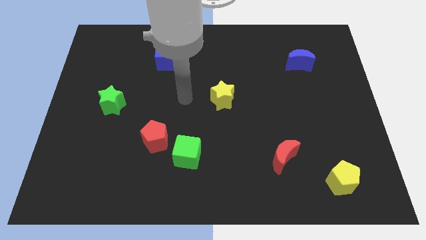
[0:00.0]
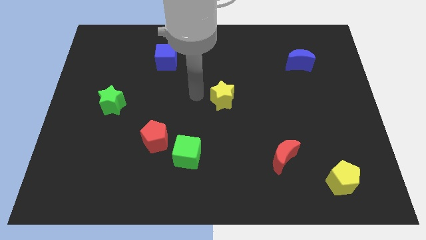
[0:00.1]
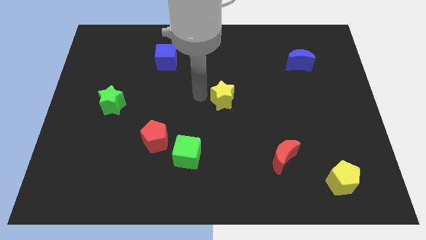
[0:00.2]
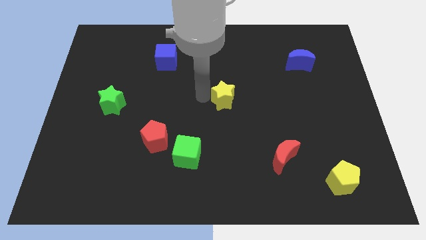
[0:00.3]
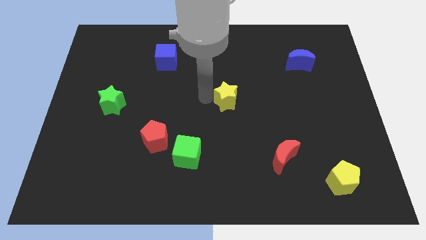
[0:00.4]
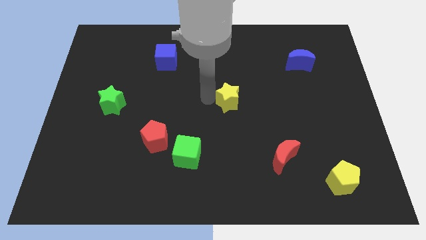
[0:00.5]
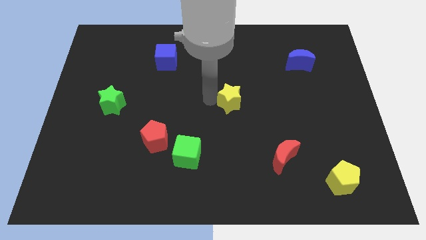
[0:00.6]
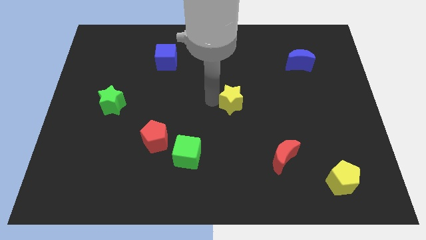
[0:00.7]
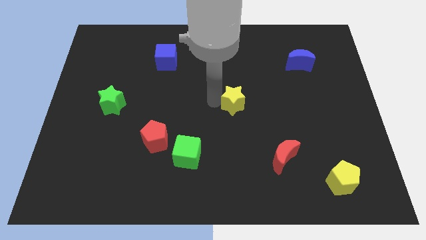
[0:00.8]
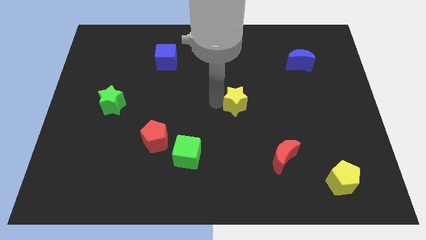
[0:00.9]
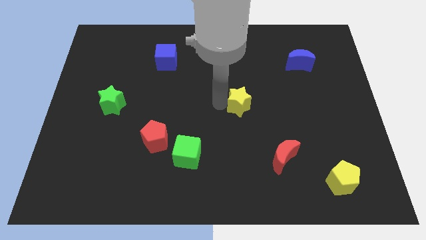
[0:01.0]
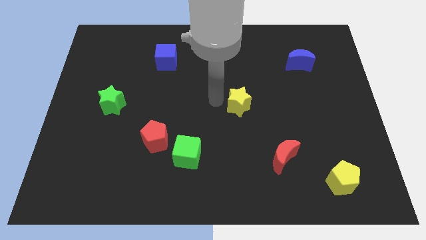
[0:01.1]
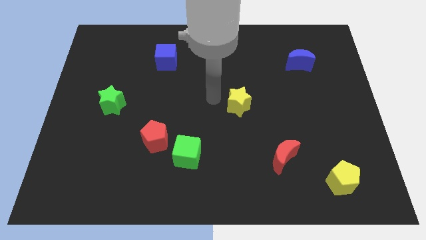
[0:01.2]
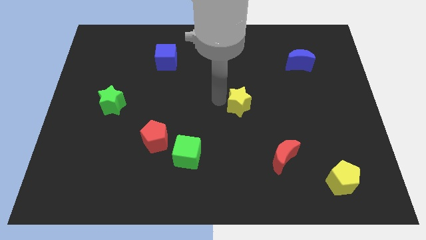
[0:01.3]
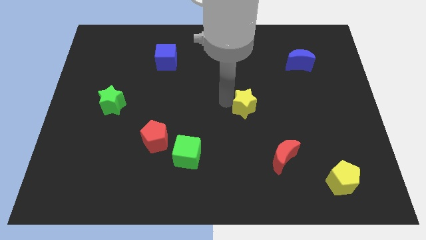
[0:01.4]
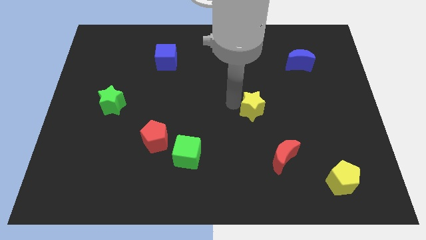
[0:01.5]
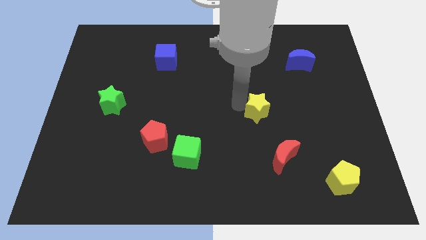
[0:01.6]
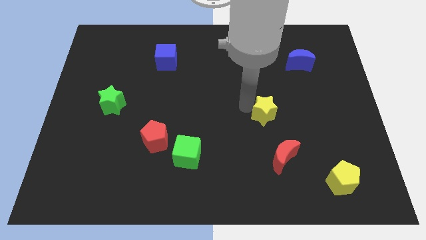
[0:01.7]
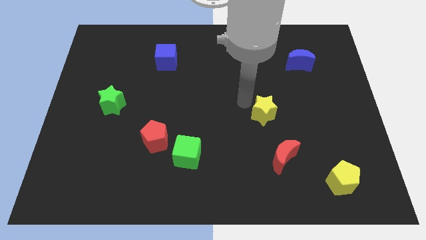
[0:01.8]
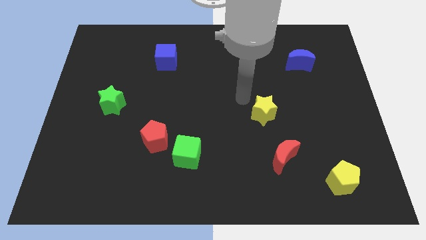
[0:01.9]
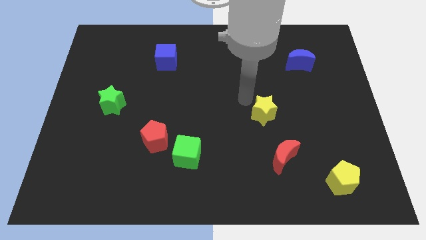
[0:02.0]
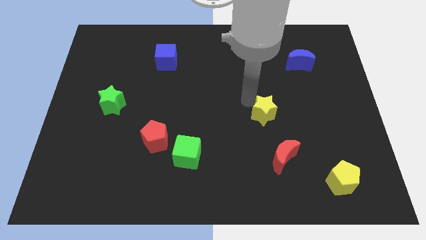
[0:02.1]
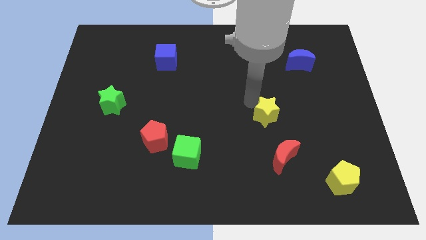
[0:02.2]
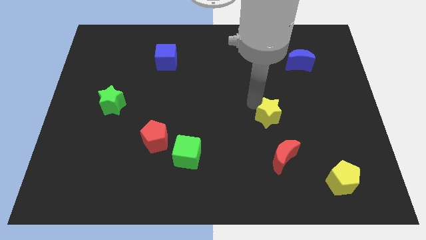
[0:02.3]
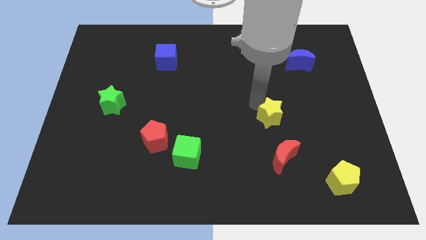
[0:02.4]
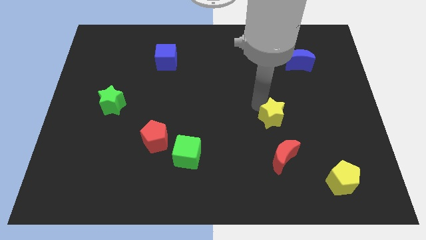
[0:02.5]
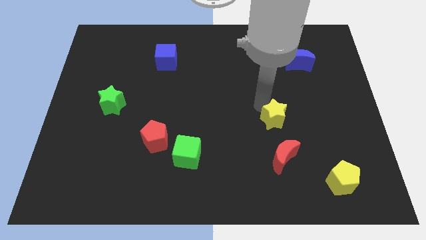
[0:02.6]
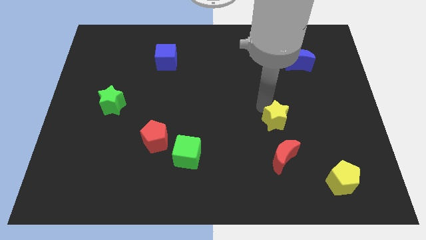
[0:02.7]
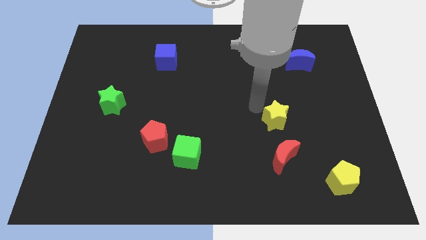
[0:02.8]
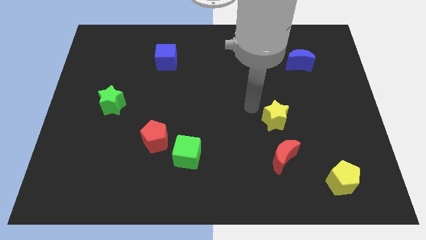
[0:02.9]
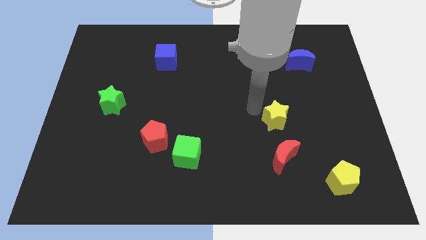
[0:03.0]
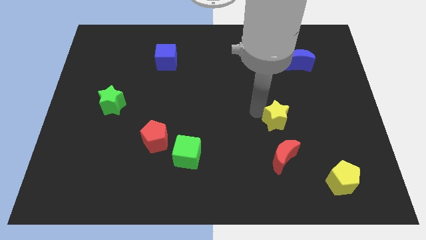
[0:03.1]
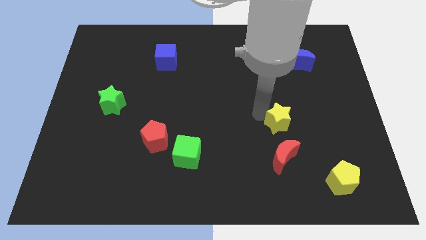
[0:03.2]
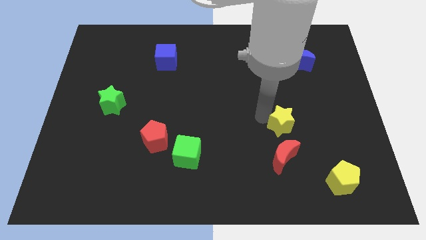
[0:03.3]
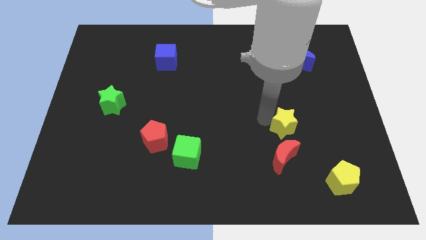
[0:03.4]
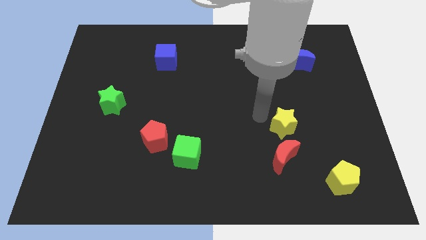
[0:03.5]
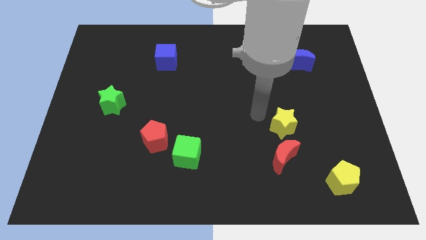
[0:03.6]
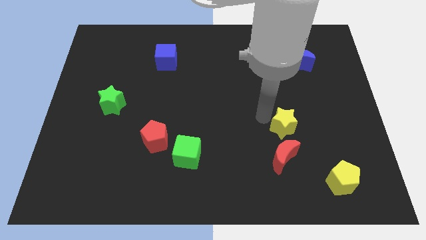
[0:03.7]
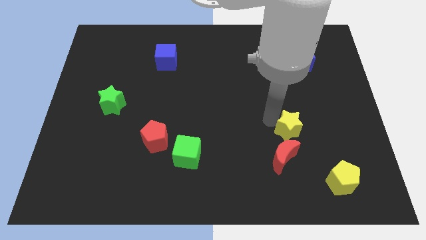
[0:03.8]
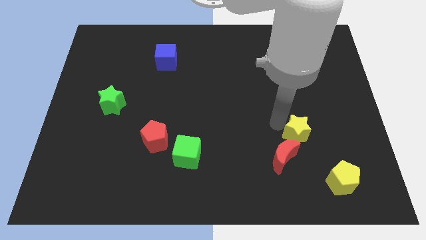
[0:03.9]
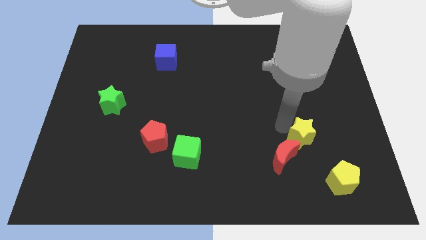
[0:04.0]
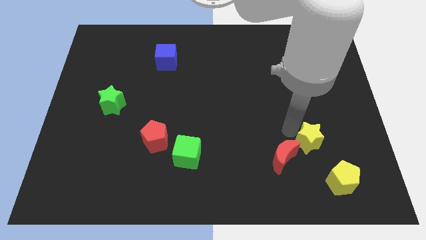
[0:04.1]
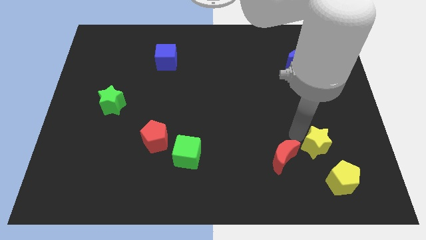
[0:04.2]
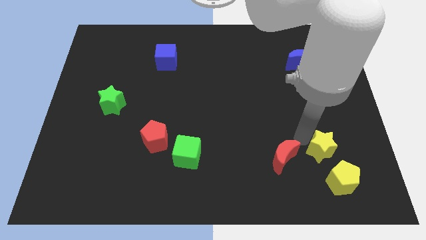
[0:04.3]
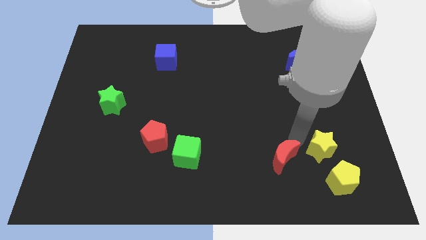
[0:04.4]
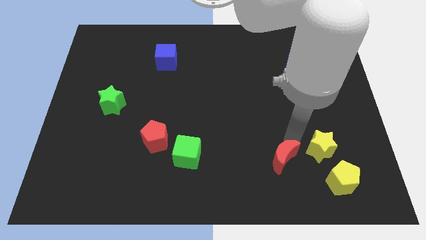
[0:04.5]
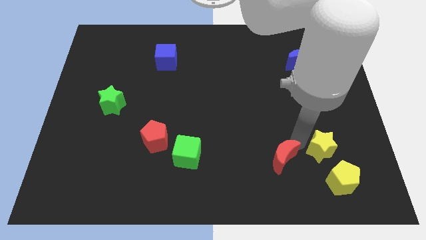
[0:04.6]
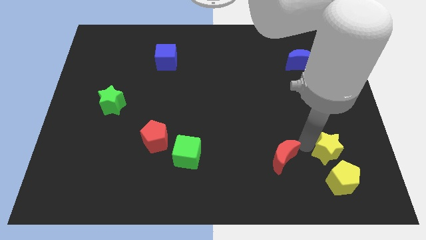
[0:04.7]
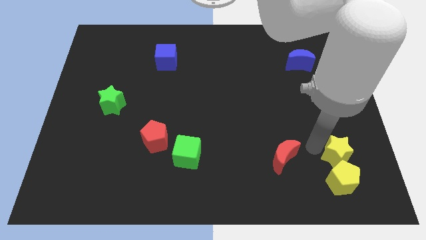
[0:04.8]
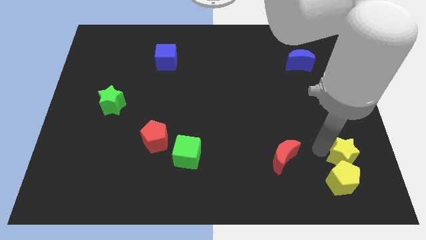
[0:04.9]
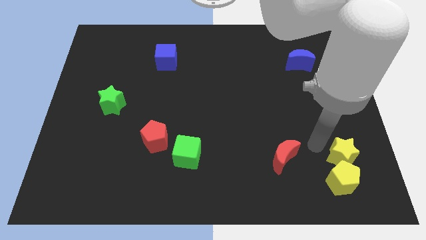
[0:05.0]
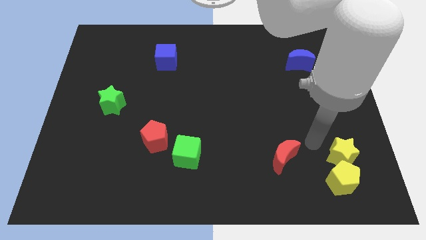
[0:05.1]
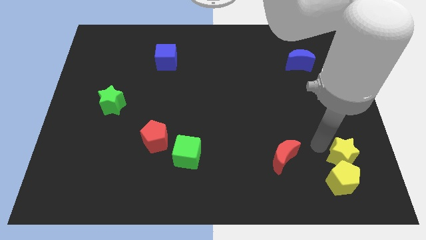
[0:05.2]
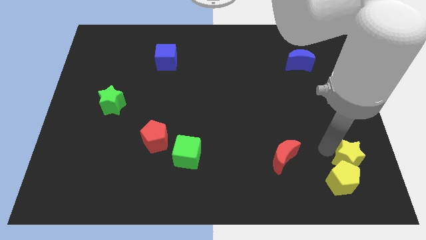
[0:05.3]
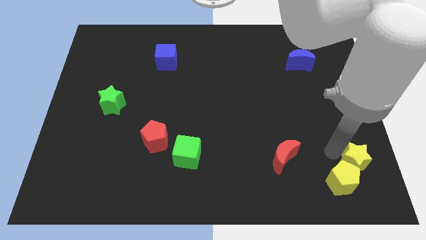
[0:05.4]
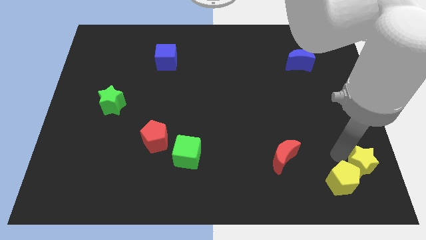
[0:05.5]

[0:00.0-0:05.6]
push the yellow star to the bottom right corner
